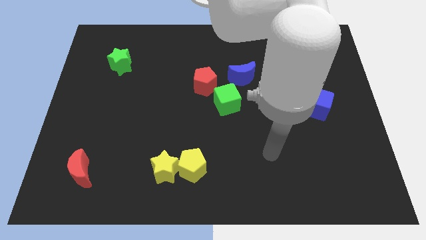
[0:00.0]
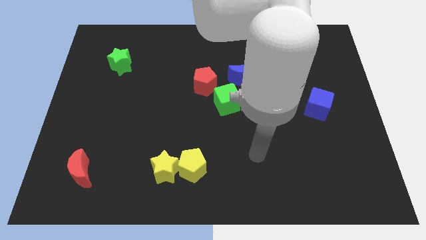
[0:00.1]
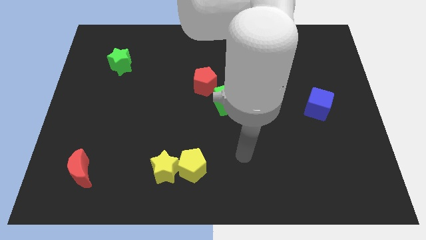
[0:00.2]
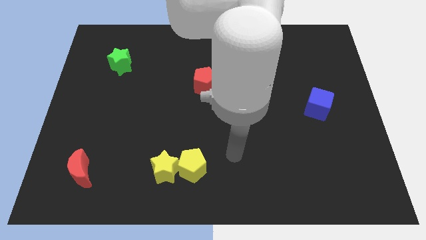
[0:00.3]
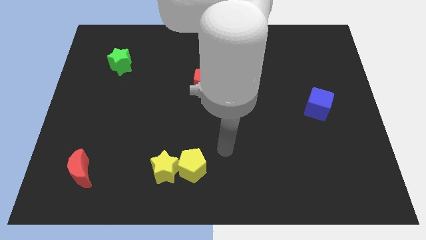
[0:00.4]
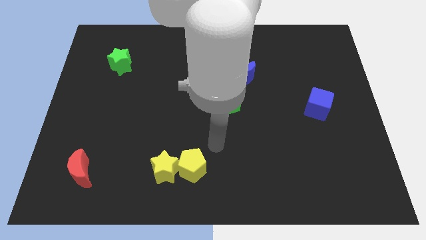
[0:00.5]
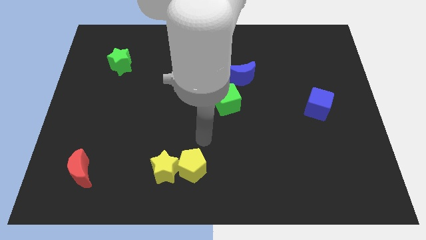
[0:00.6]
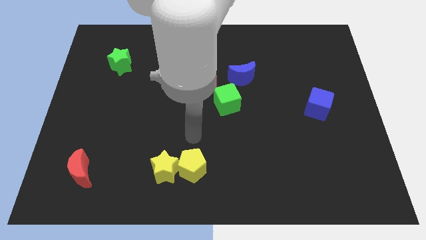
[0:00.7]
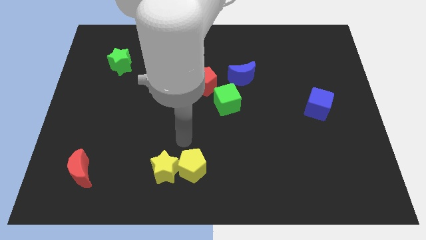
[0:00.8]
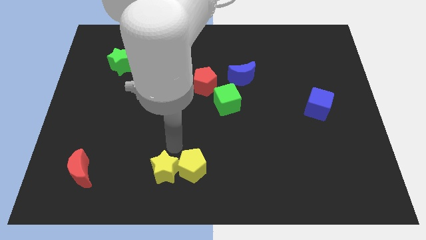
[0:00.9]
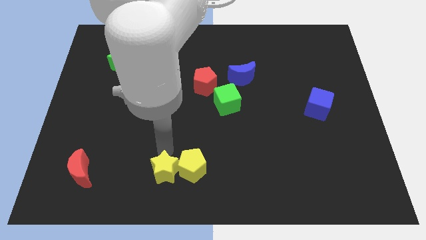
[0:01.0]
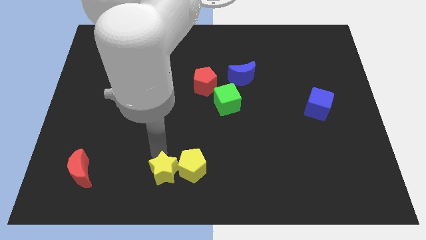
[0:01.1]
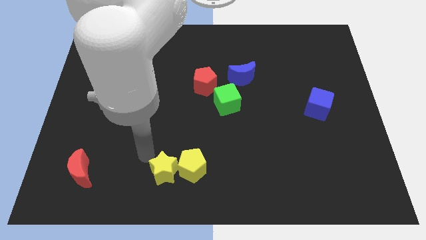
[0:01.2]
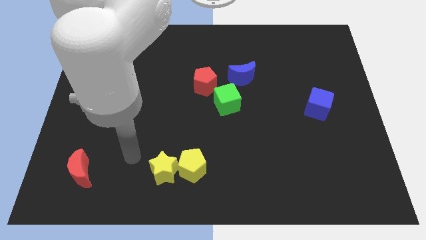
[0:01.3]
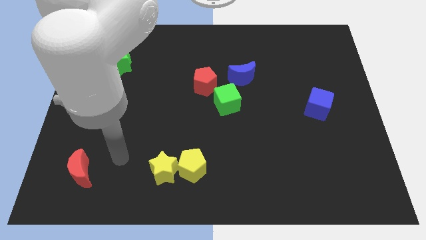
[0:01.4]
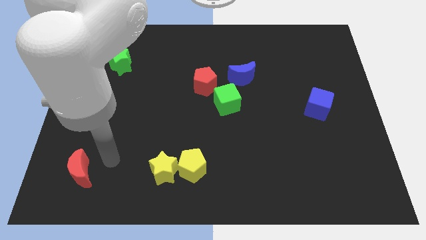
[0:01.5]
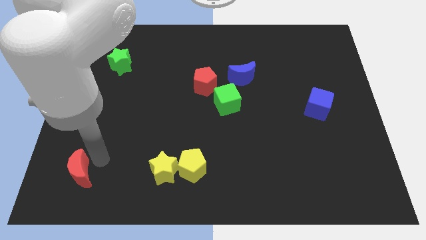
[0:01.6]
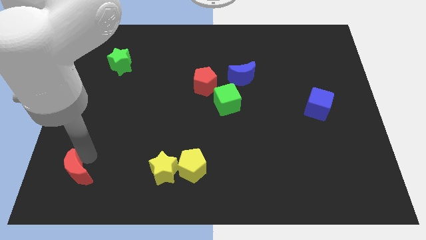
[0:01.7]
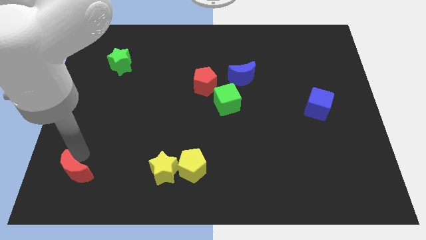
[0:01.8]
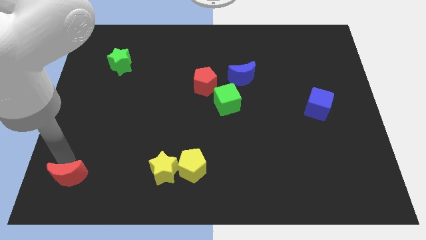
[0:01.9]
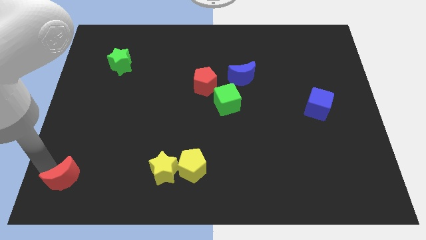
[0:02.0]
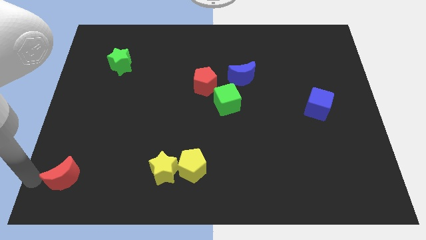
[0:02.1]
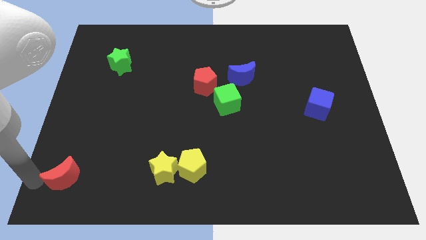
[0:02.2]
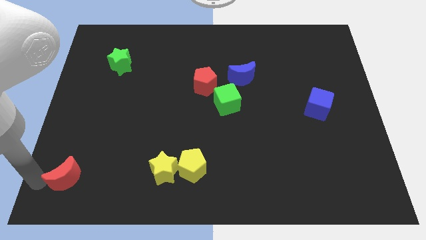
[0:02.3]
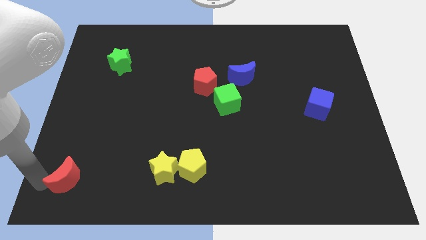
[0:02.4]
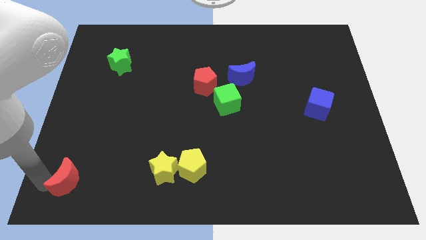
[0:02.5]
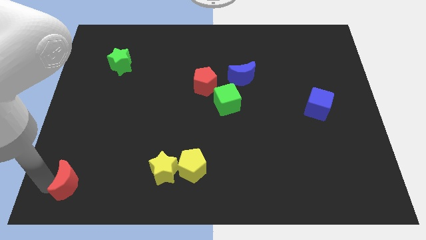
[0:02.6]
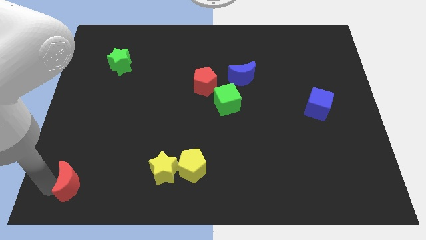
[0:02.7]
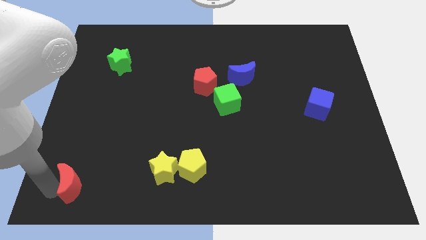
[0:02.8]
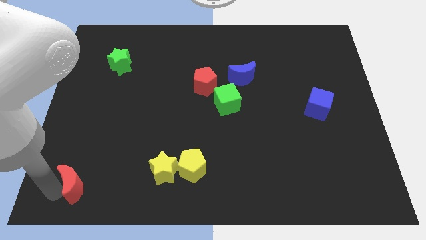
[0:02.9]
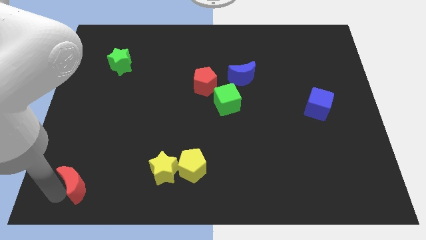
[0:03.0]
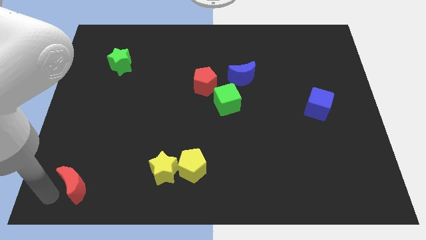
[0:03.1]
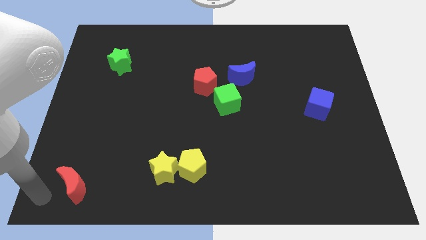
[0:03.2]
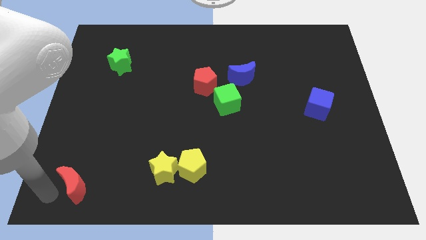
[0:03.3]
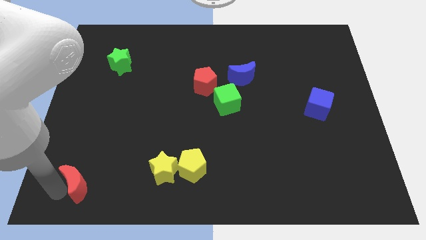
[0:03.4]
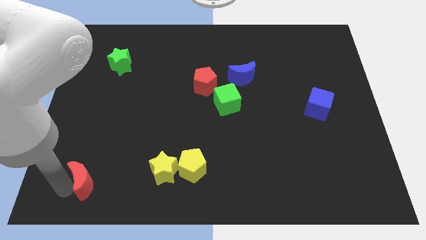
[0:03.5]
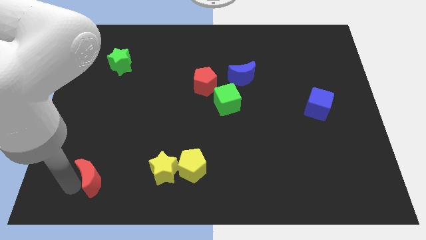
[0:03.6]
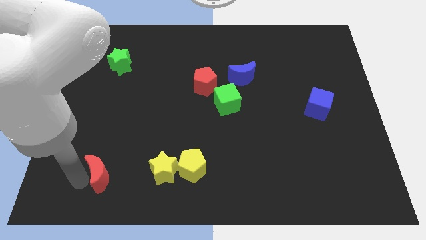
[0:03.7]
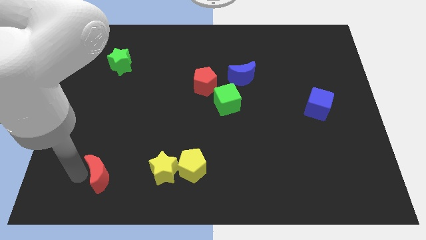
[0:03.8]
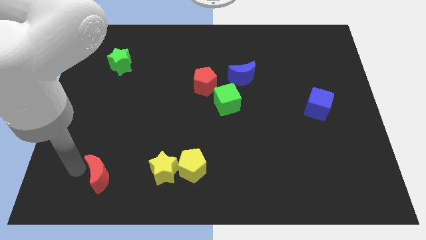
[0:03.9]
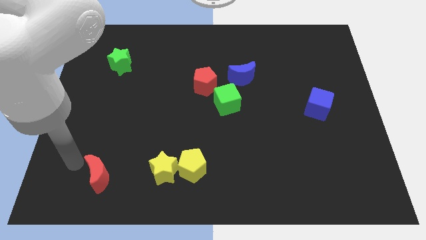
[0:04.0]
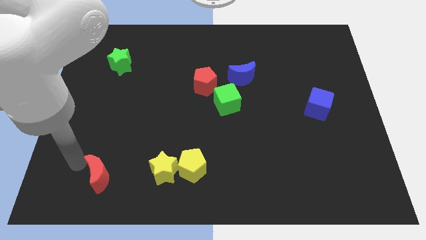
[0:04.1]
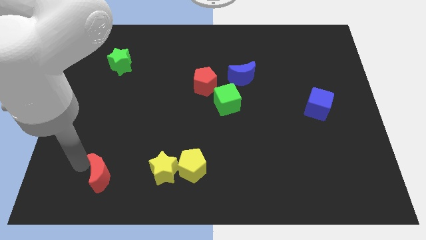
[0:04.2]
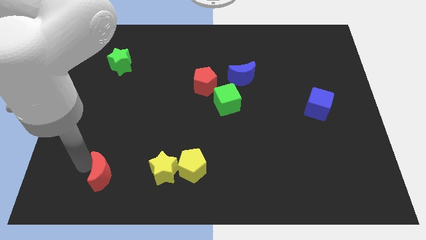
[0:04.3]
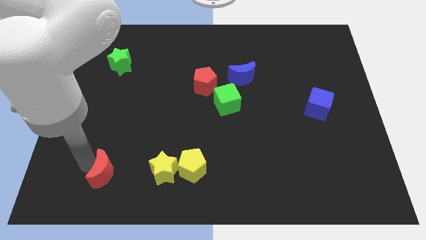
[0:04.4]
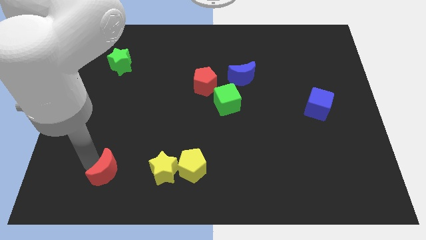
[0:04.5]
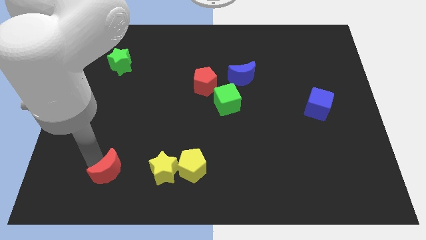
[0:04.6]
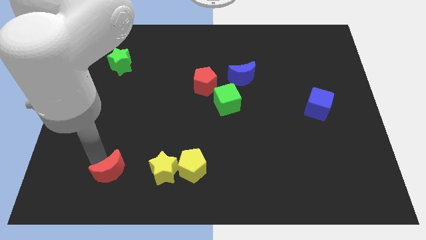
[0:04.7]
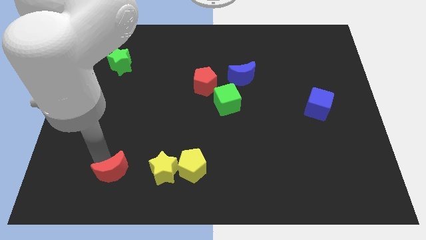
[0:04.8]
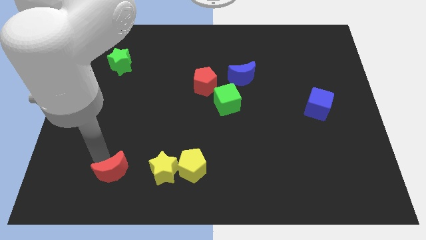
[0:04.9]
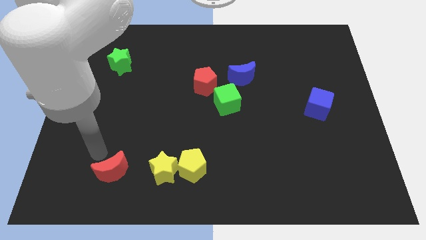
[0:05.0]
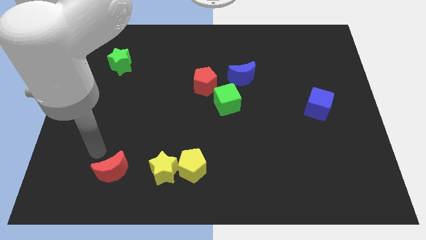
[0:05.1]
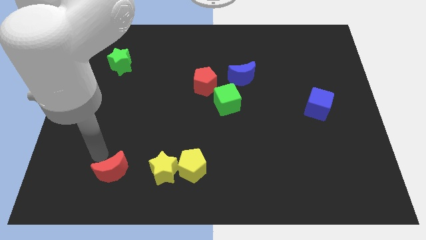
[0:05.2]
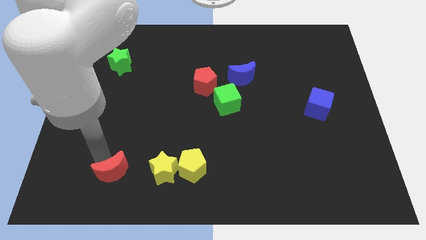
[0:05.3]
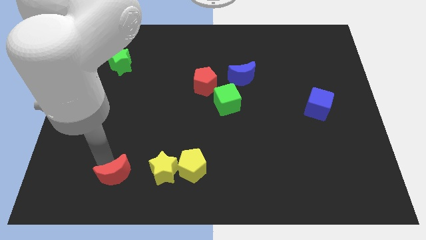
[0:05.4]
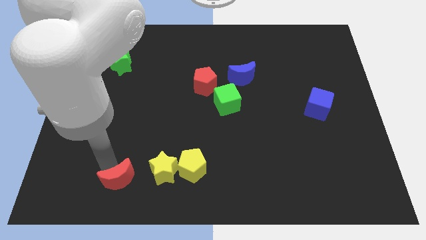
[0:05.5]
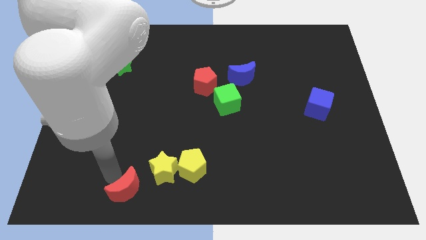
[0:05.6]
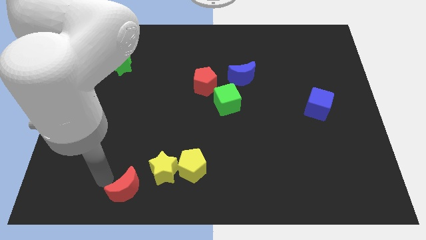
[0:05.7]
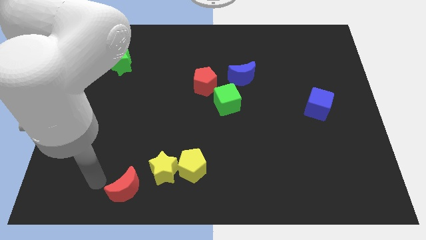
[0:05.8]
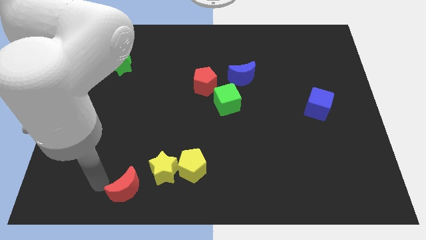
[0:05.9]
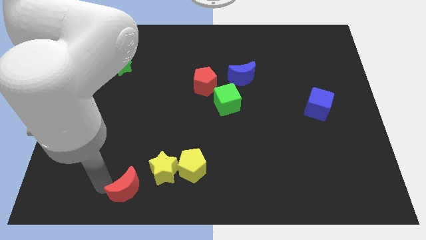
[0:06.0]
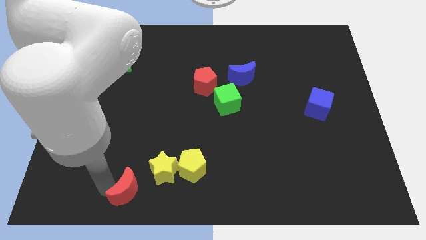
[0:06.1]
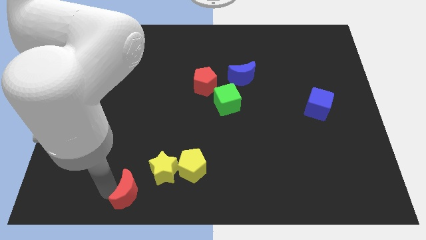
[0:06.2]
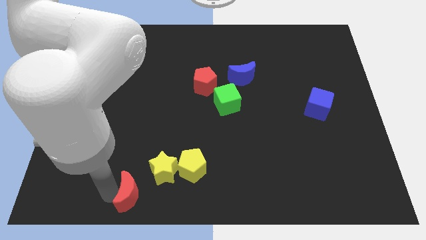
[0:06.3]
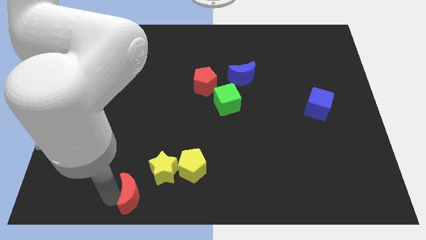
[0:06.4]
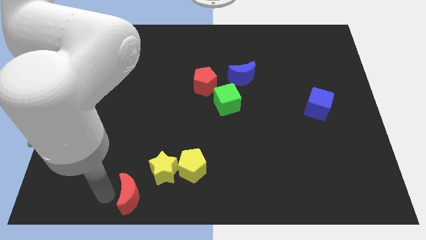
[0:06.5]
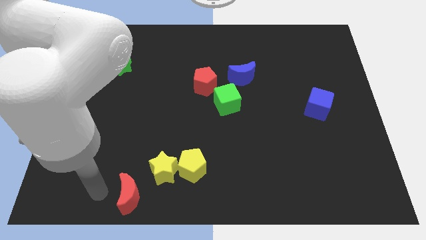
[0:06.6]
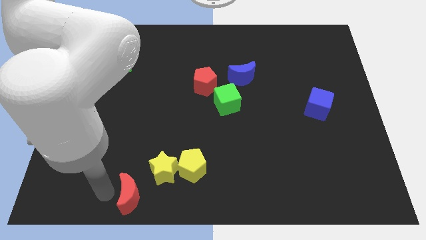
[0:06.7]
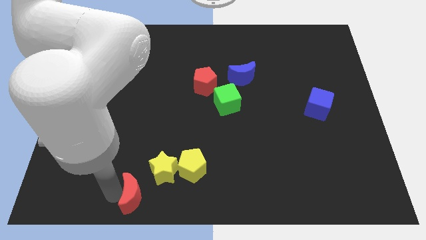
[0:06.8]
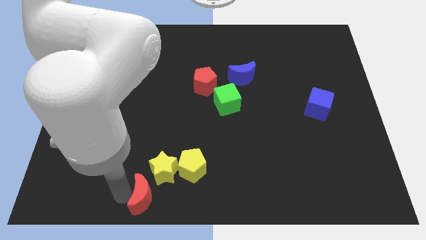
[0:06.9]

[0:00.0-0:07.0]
slide the red moon to the bottom
